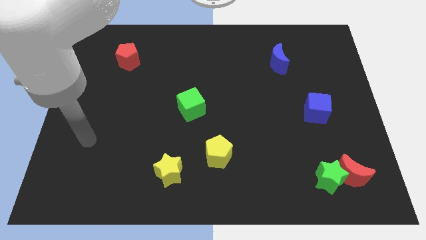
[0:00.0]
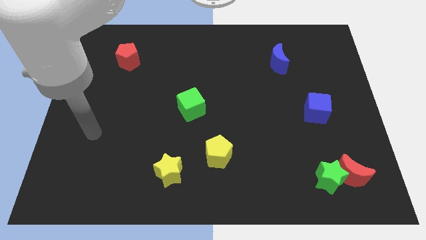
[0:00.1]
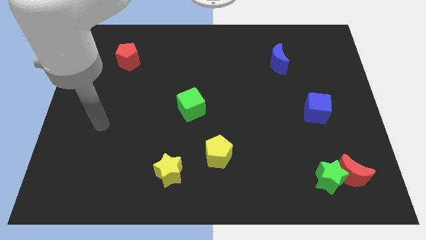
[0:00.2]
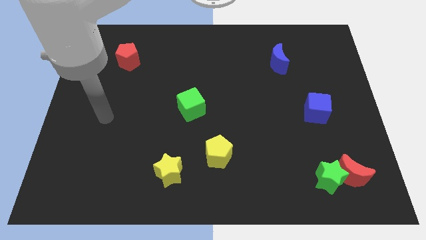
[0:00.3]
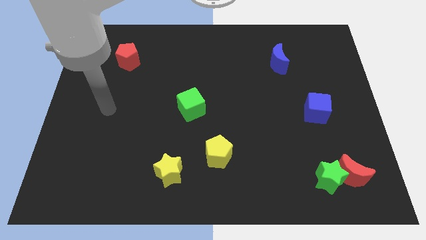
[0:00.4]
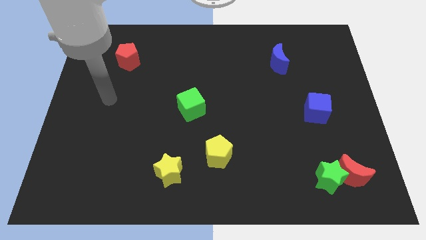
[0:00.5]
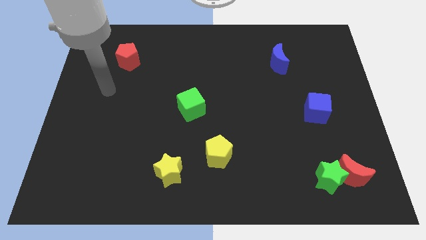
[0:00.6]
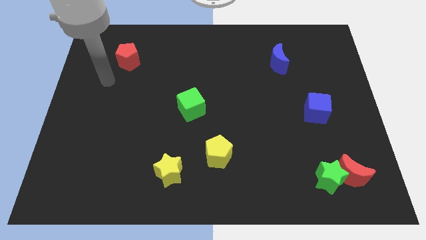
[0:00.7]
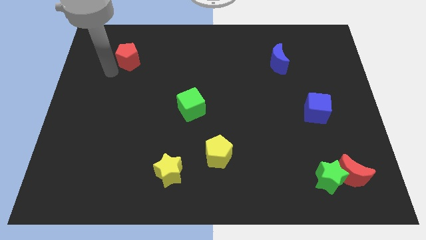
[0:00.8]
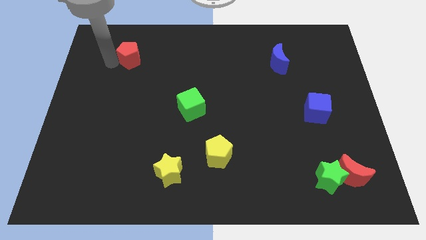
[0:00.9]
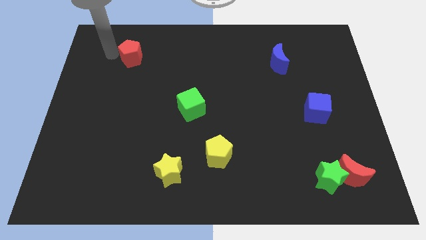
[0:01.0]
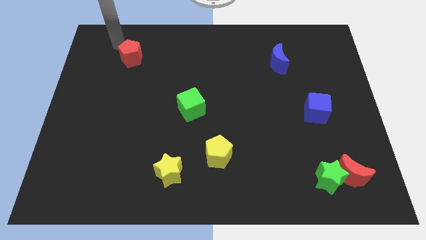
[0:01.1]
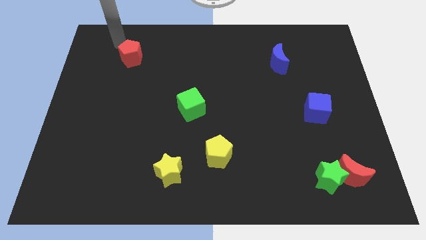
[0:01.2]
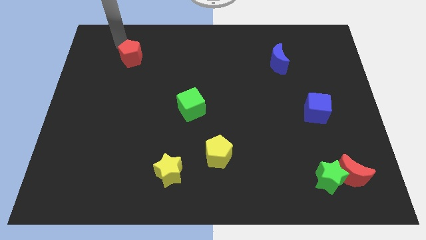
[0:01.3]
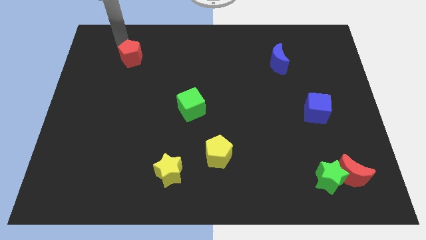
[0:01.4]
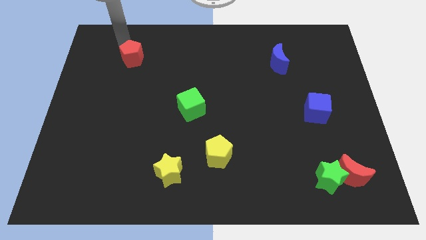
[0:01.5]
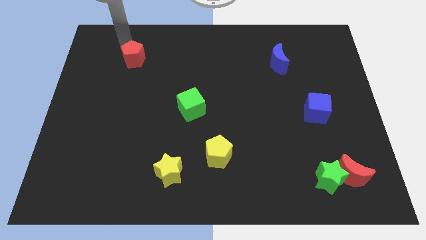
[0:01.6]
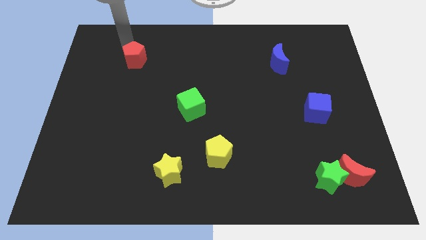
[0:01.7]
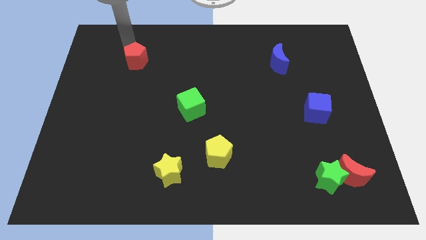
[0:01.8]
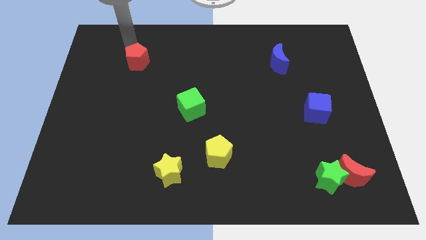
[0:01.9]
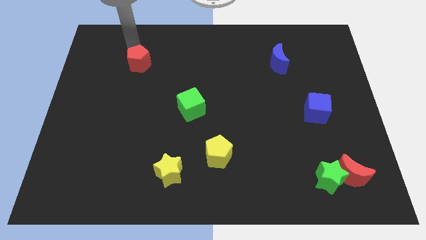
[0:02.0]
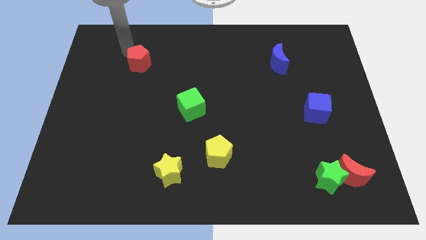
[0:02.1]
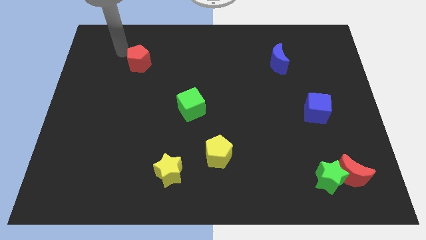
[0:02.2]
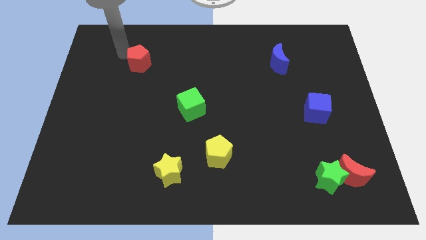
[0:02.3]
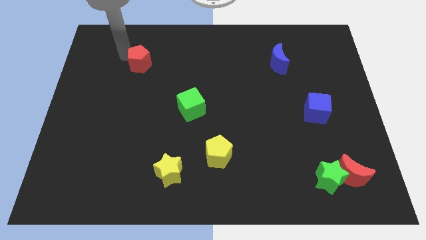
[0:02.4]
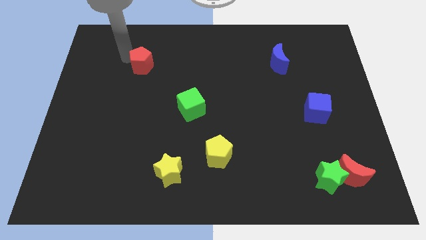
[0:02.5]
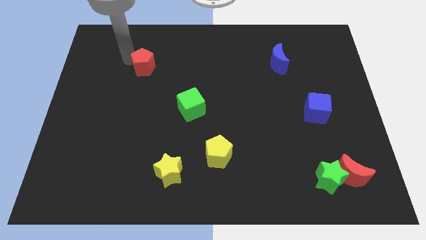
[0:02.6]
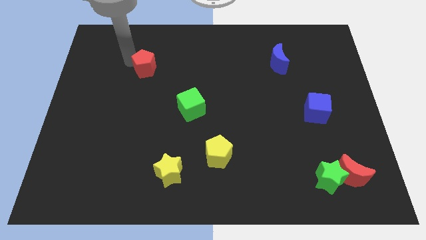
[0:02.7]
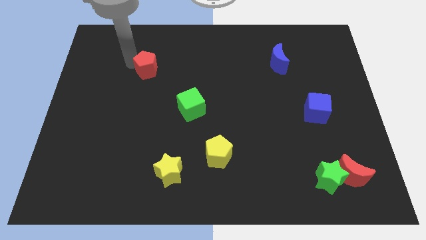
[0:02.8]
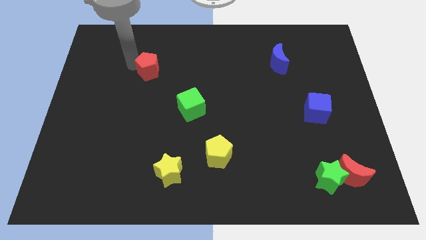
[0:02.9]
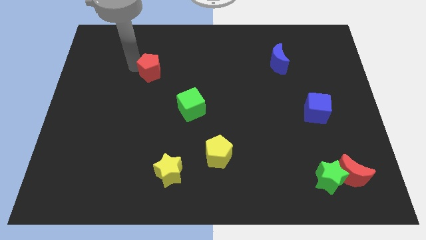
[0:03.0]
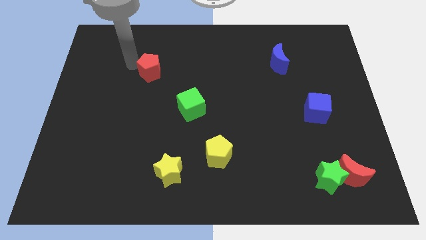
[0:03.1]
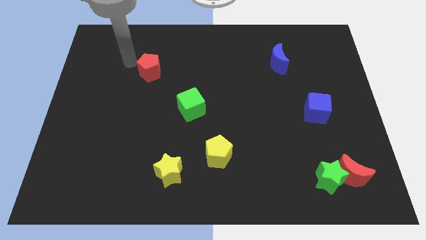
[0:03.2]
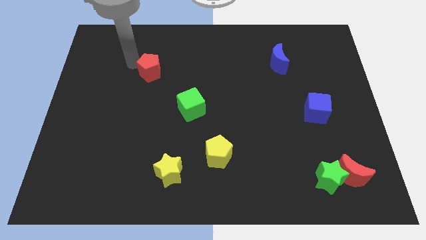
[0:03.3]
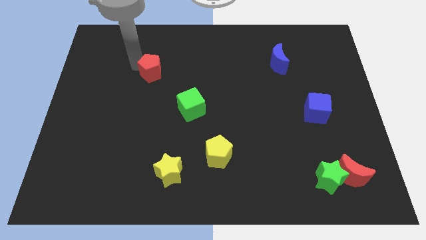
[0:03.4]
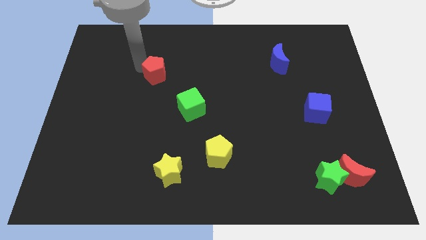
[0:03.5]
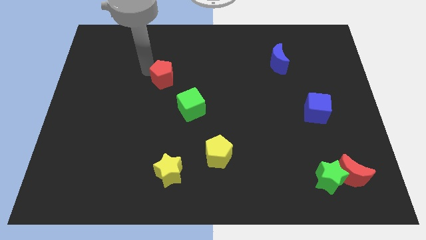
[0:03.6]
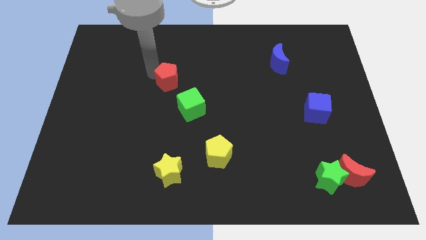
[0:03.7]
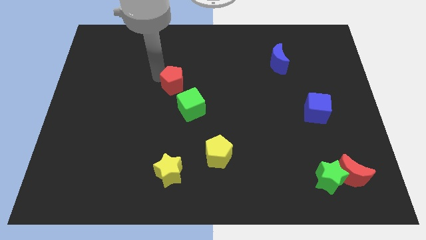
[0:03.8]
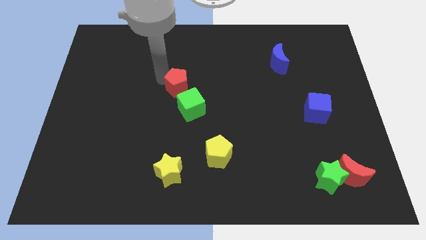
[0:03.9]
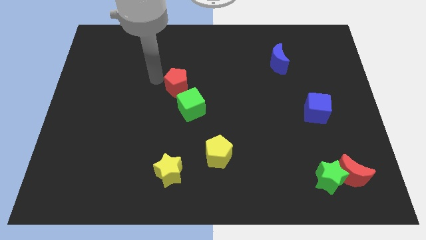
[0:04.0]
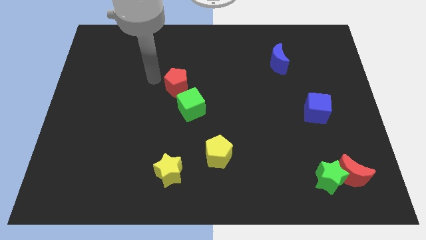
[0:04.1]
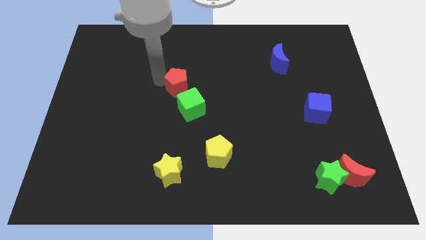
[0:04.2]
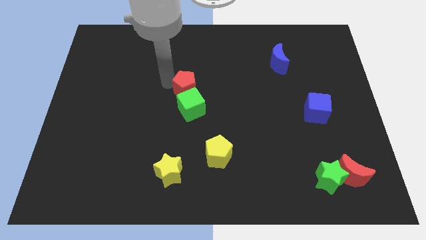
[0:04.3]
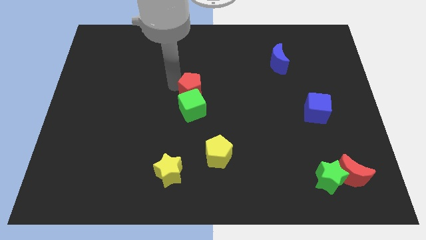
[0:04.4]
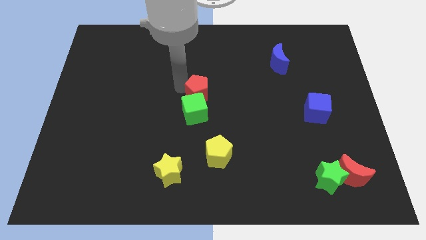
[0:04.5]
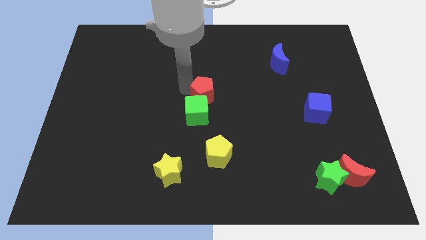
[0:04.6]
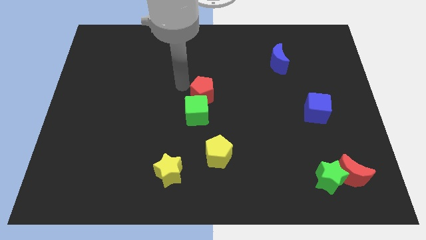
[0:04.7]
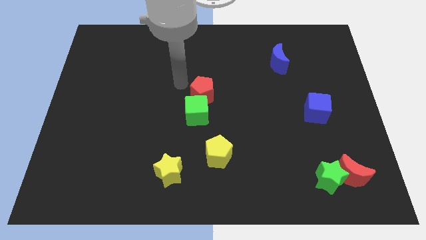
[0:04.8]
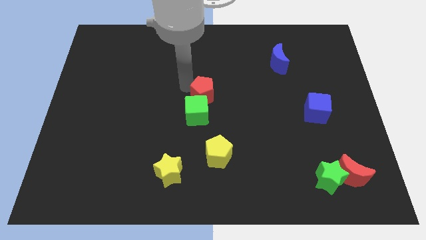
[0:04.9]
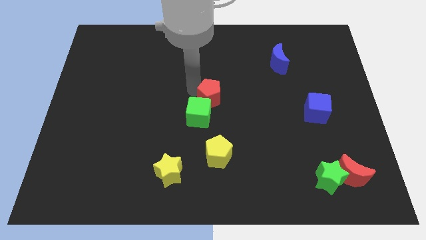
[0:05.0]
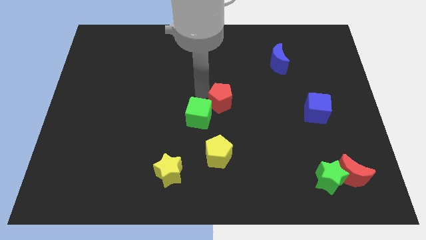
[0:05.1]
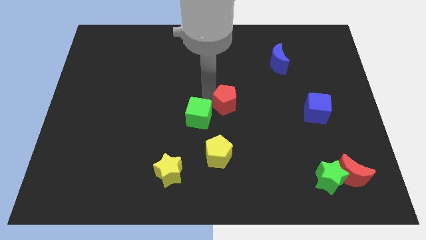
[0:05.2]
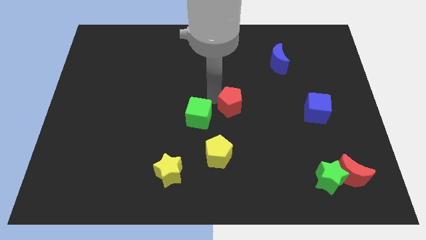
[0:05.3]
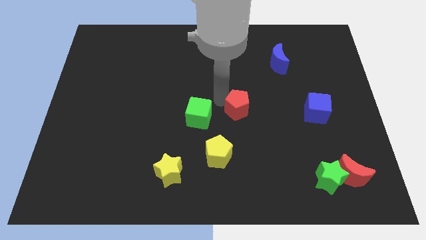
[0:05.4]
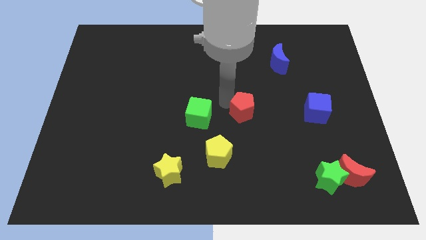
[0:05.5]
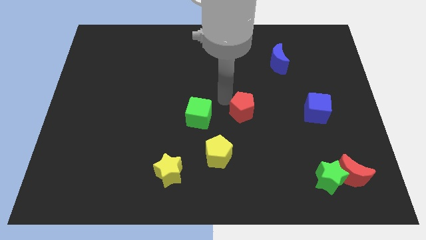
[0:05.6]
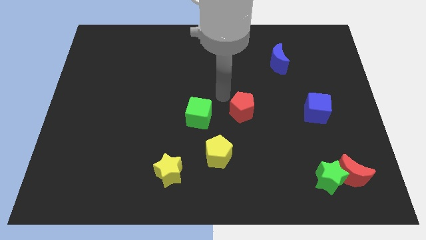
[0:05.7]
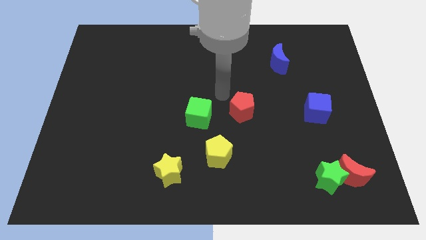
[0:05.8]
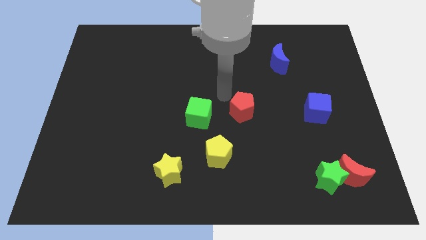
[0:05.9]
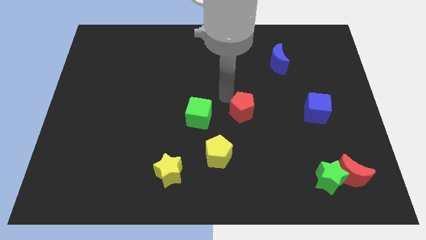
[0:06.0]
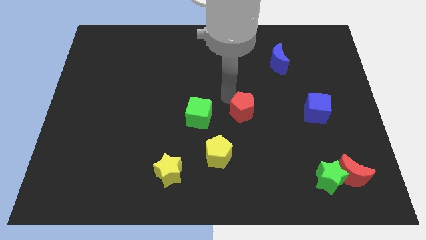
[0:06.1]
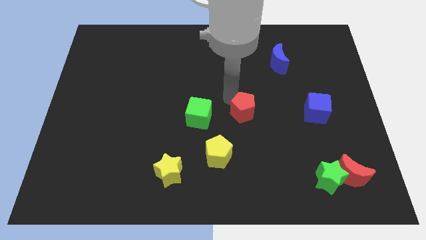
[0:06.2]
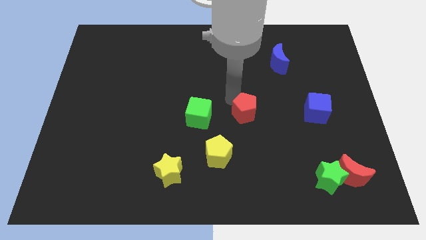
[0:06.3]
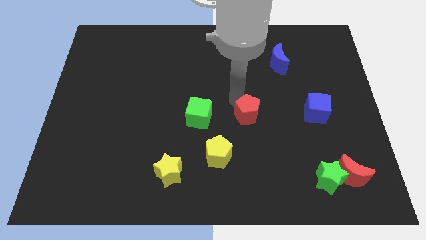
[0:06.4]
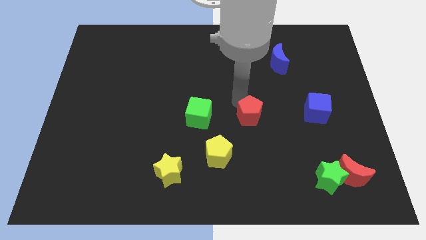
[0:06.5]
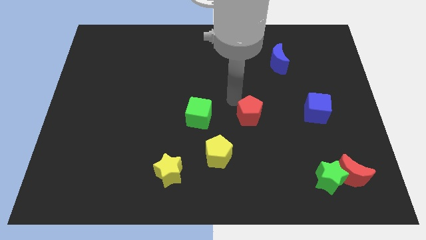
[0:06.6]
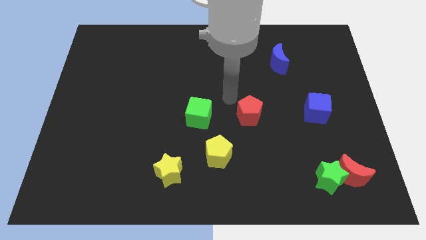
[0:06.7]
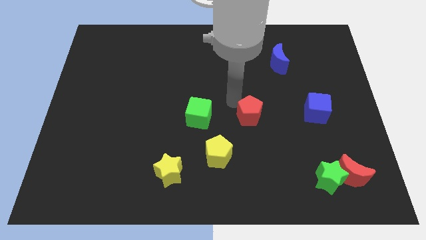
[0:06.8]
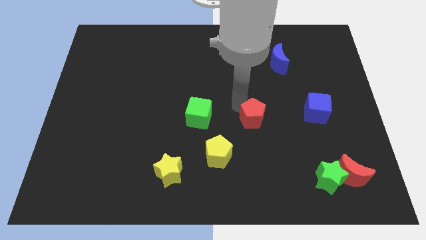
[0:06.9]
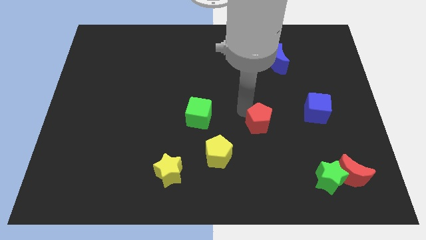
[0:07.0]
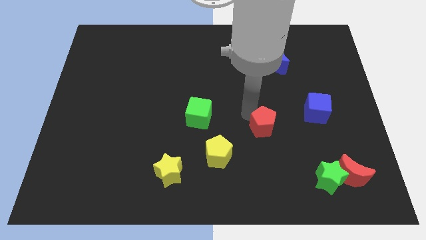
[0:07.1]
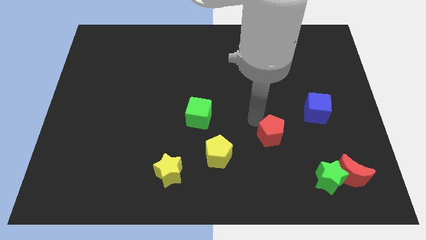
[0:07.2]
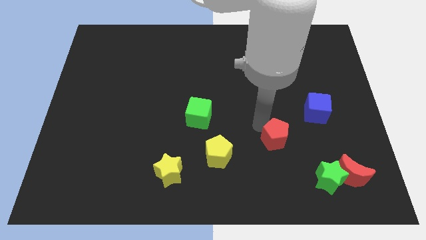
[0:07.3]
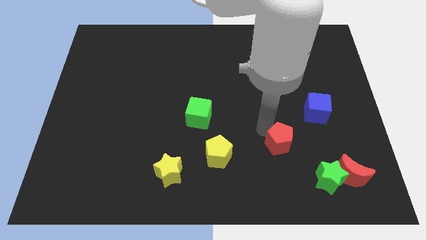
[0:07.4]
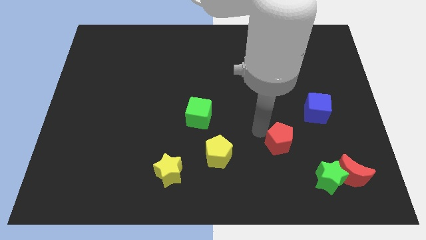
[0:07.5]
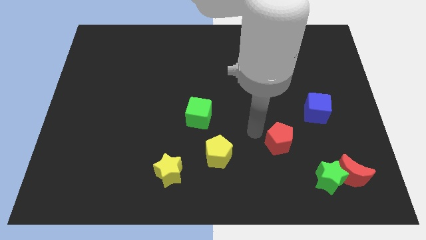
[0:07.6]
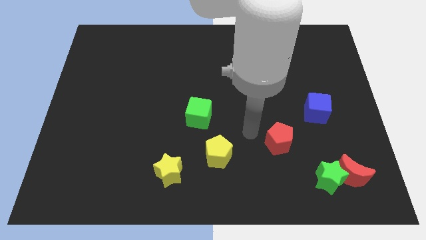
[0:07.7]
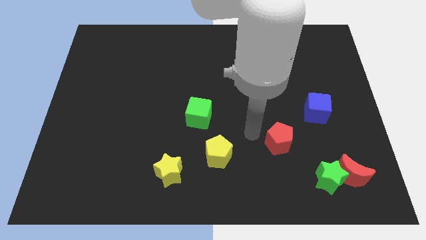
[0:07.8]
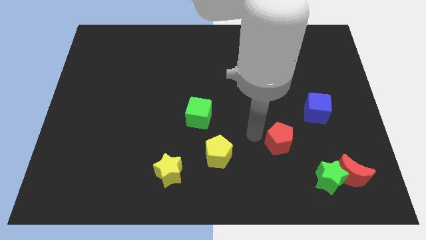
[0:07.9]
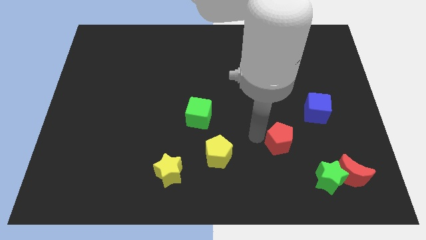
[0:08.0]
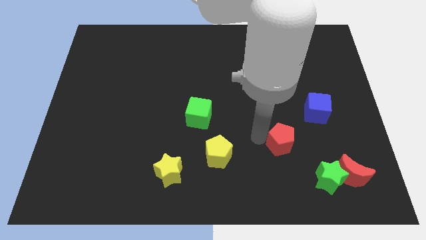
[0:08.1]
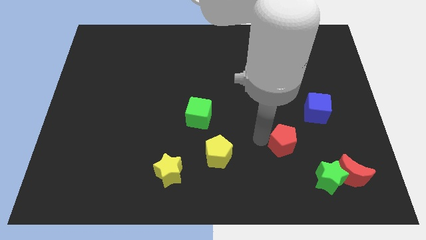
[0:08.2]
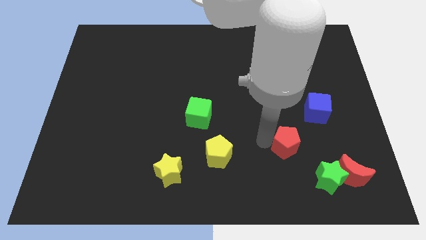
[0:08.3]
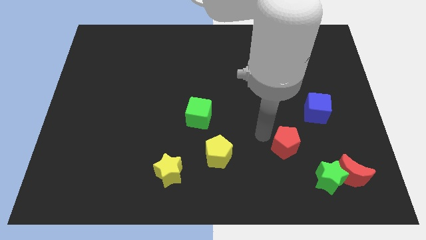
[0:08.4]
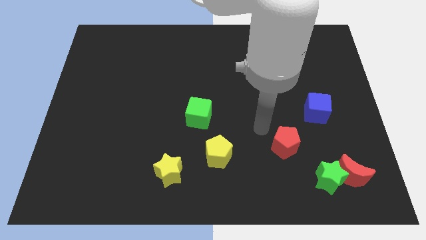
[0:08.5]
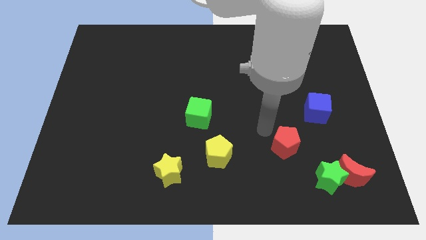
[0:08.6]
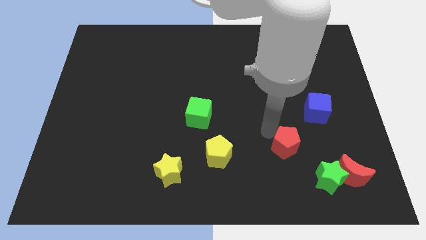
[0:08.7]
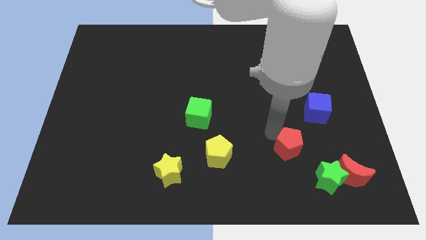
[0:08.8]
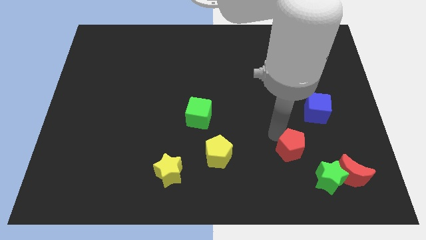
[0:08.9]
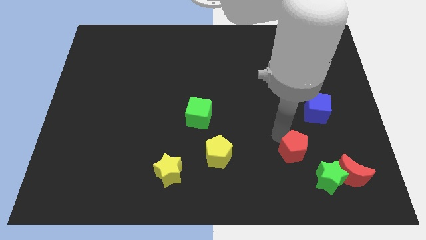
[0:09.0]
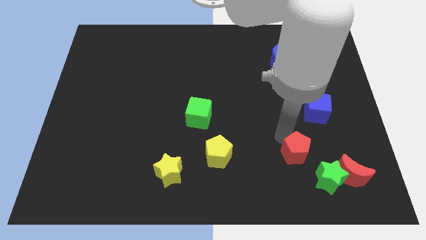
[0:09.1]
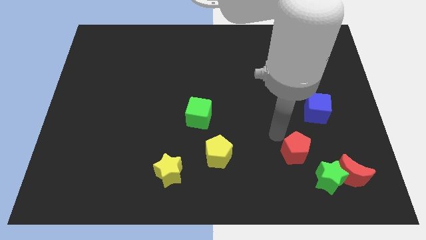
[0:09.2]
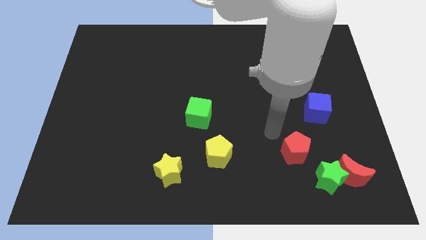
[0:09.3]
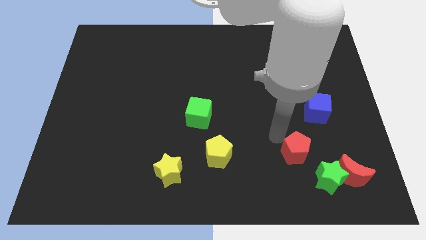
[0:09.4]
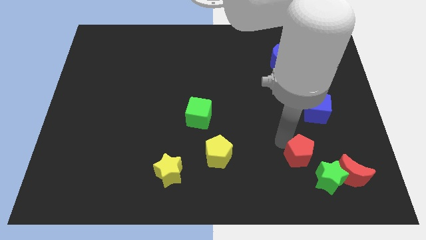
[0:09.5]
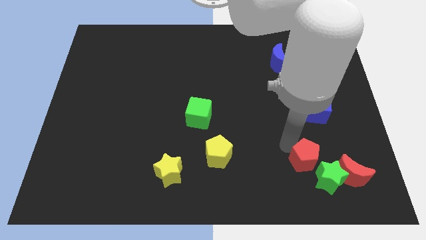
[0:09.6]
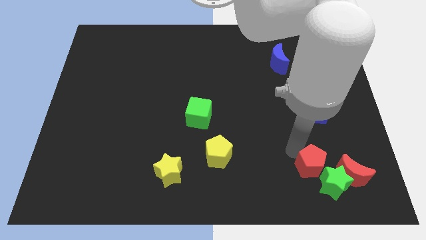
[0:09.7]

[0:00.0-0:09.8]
put the red pentagon towards the green star
